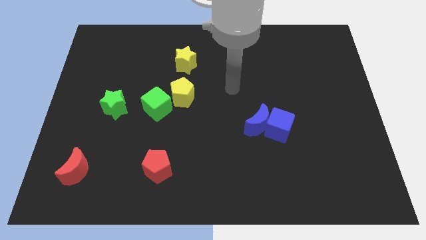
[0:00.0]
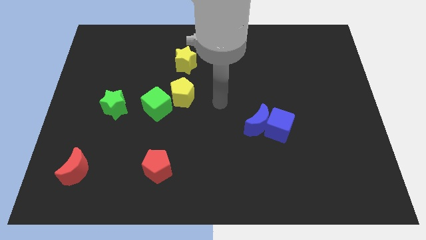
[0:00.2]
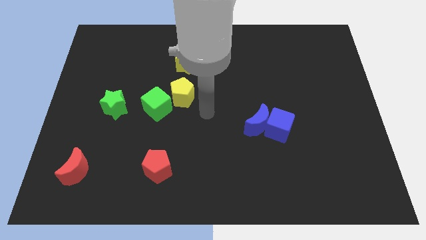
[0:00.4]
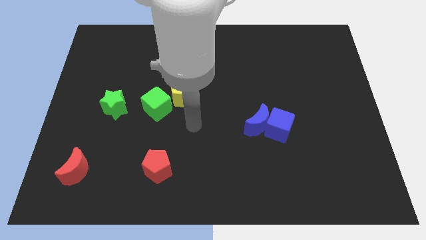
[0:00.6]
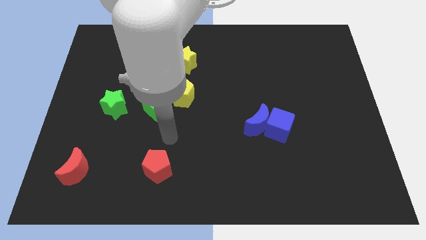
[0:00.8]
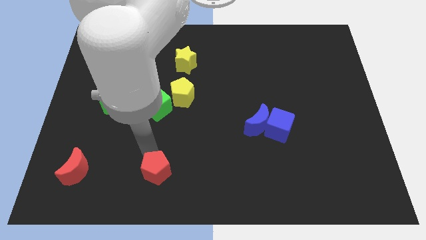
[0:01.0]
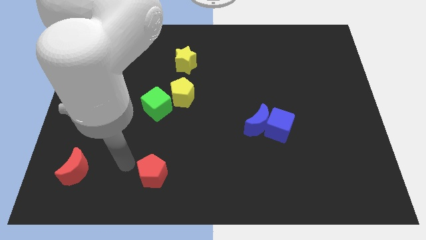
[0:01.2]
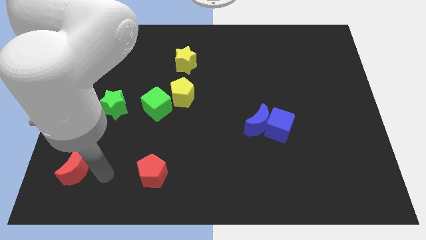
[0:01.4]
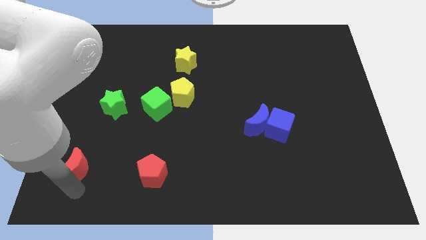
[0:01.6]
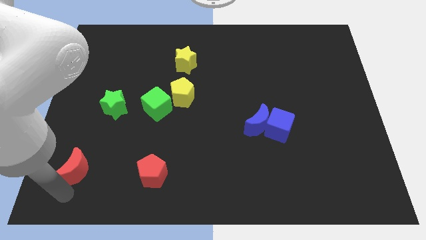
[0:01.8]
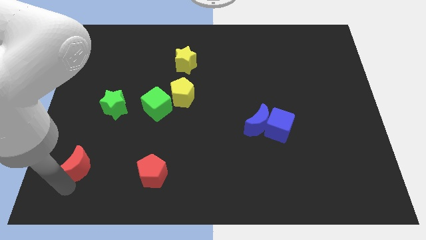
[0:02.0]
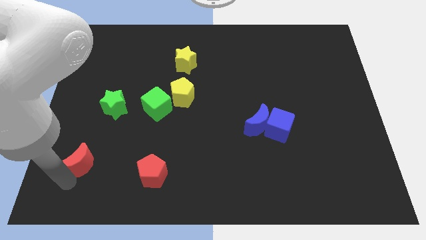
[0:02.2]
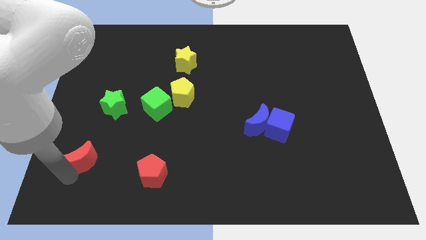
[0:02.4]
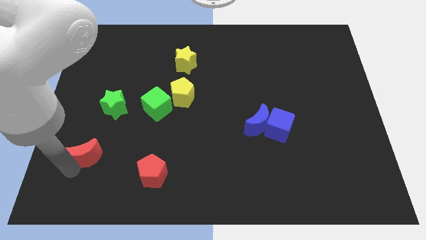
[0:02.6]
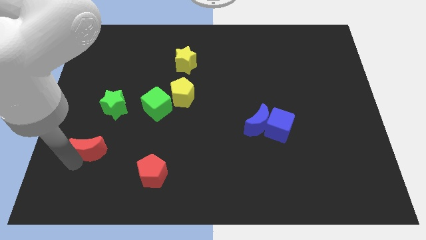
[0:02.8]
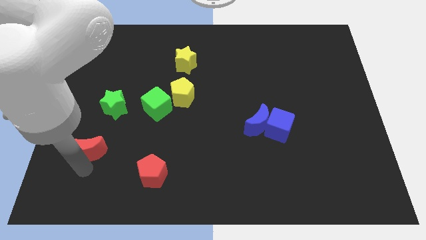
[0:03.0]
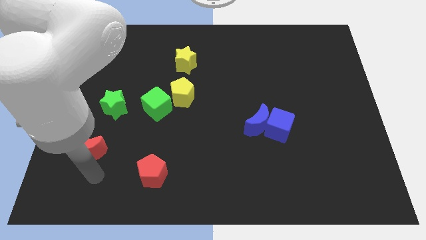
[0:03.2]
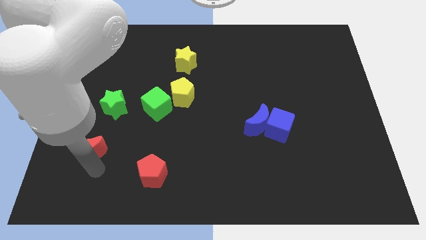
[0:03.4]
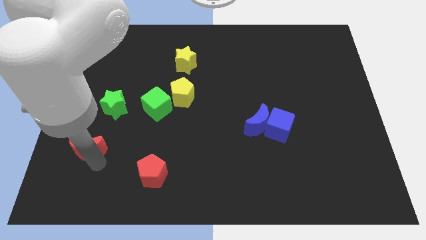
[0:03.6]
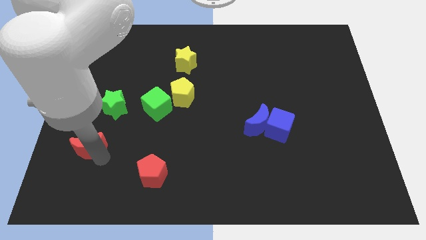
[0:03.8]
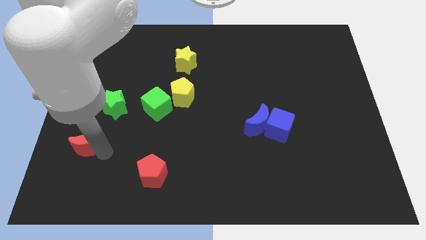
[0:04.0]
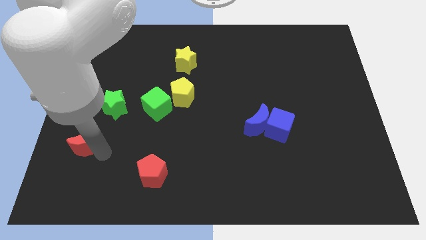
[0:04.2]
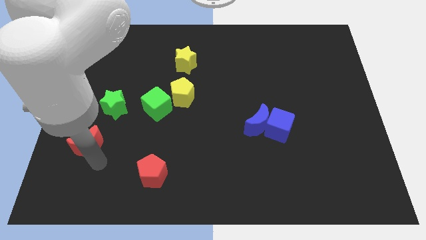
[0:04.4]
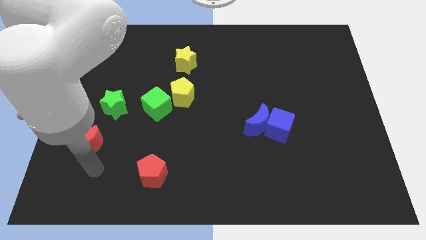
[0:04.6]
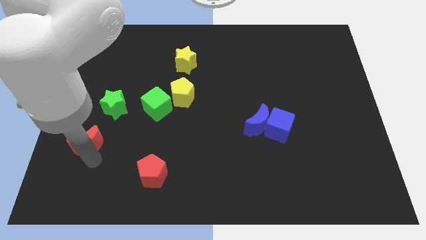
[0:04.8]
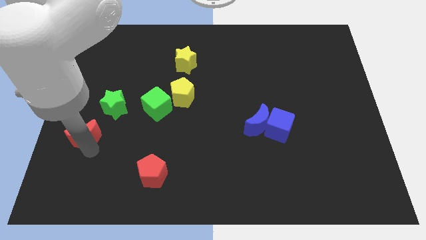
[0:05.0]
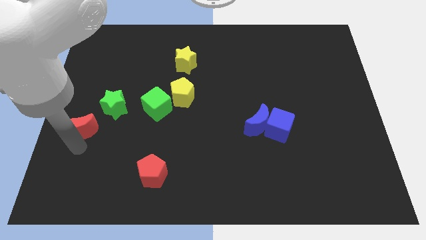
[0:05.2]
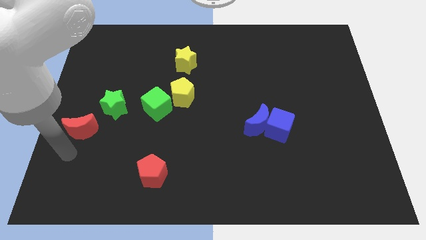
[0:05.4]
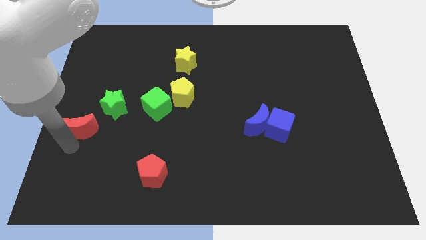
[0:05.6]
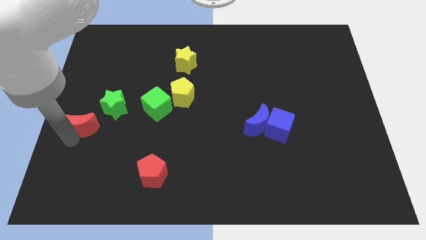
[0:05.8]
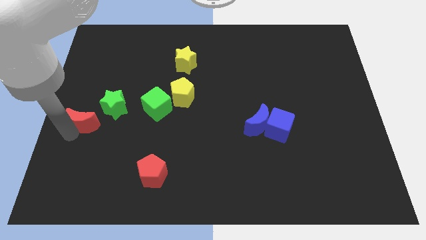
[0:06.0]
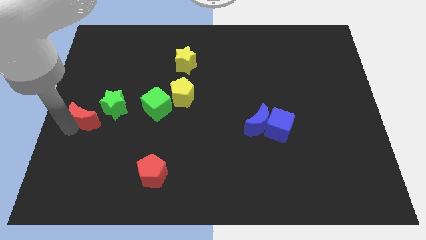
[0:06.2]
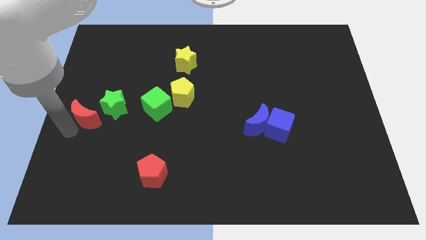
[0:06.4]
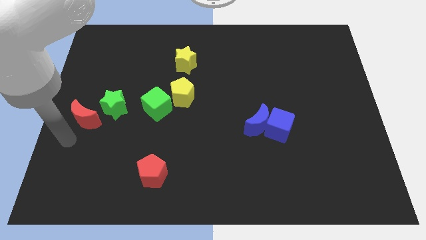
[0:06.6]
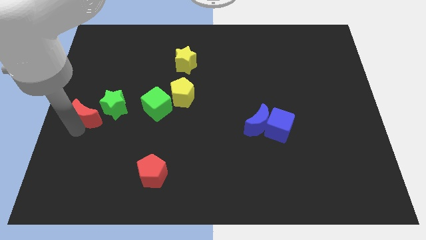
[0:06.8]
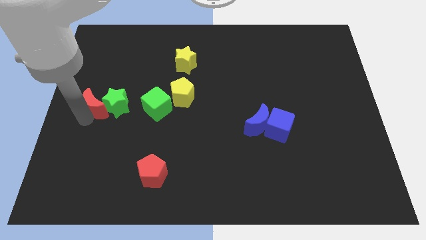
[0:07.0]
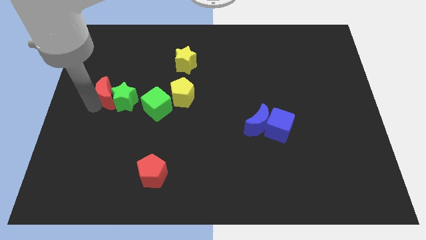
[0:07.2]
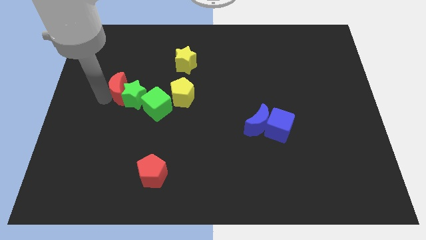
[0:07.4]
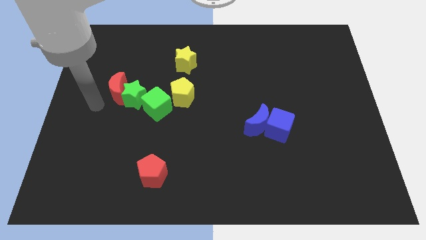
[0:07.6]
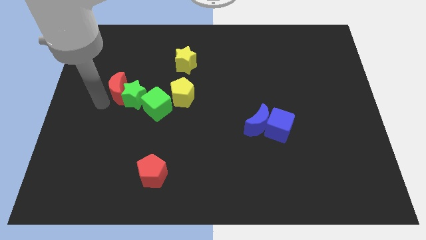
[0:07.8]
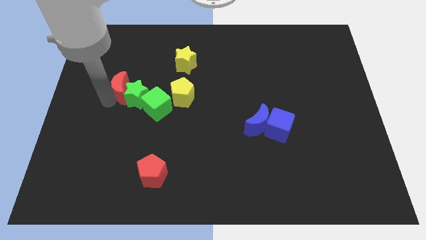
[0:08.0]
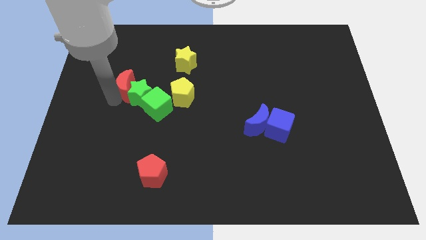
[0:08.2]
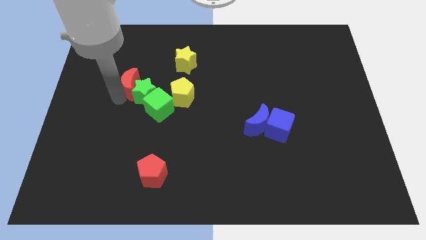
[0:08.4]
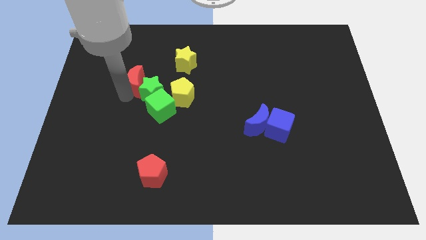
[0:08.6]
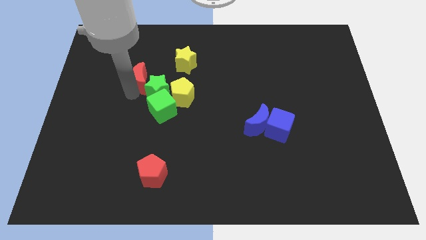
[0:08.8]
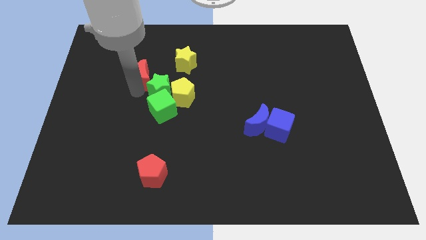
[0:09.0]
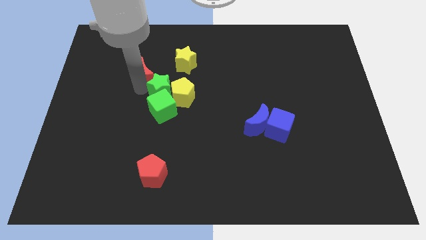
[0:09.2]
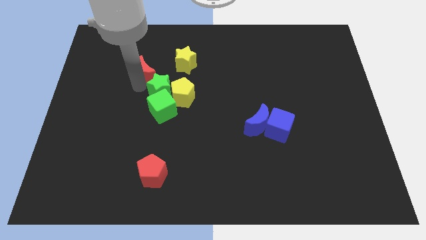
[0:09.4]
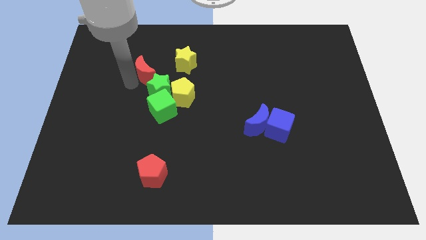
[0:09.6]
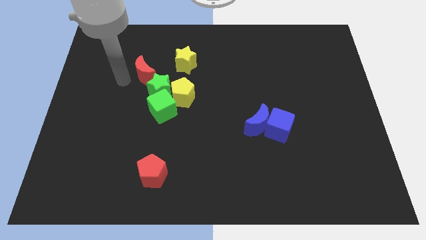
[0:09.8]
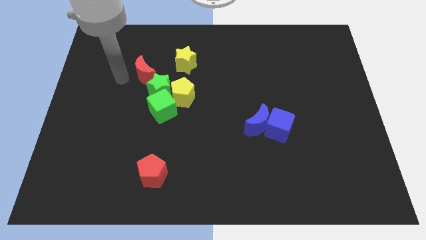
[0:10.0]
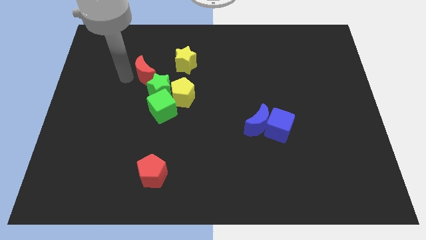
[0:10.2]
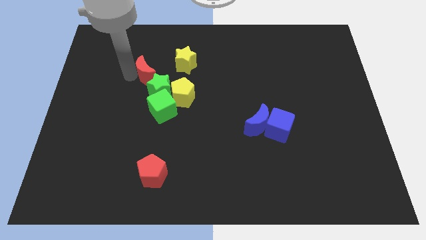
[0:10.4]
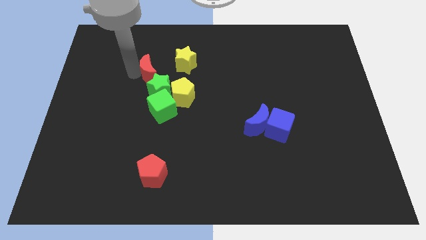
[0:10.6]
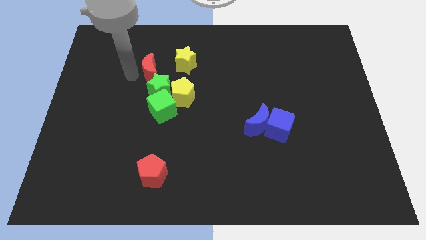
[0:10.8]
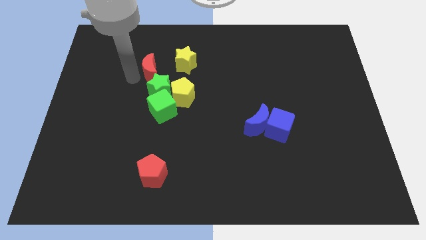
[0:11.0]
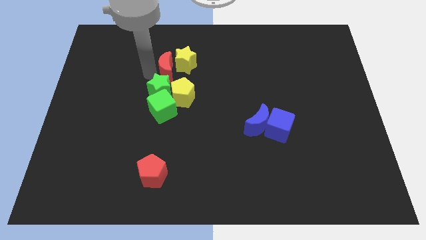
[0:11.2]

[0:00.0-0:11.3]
put the red moon to the yellow star

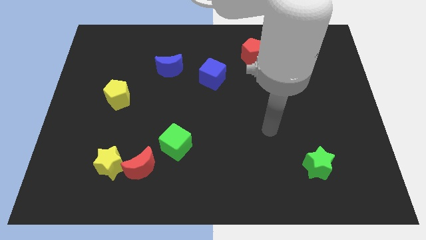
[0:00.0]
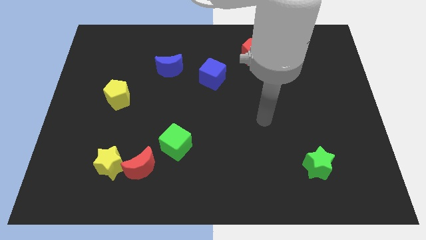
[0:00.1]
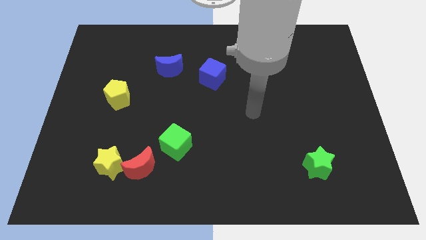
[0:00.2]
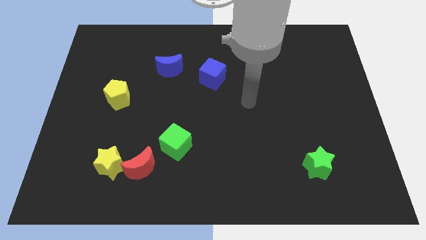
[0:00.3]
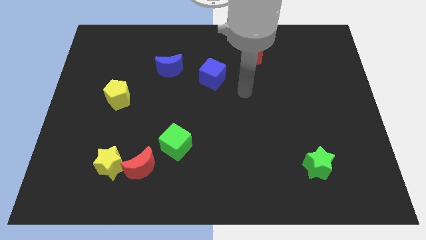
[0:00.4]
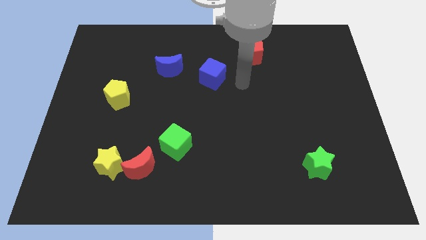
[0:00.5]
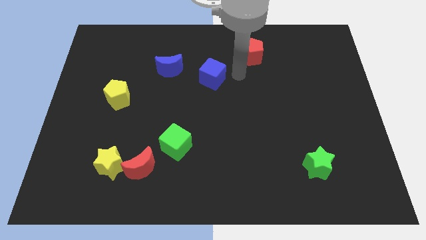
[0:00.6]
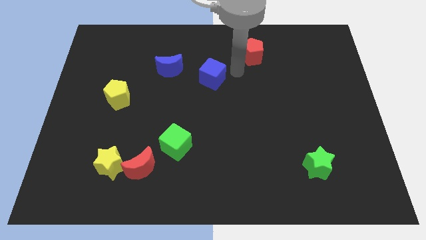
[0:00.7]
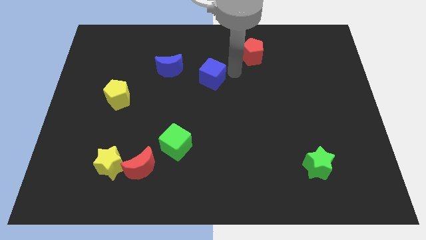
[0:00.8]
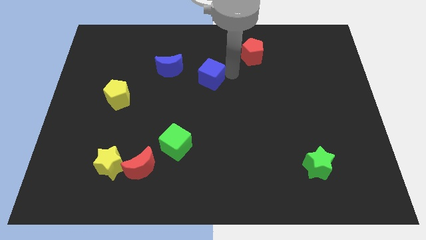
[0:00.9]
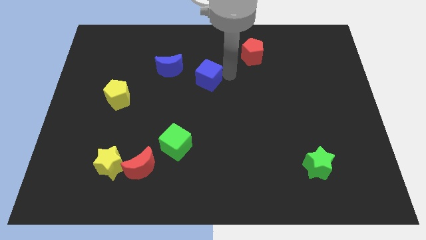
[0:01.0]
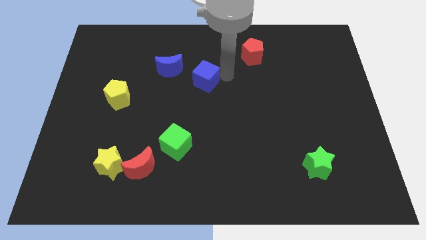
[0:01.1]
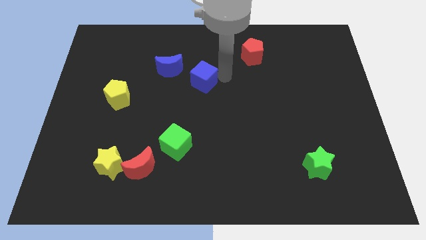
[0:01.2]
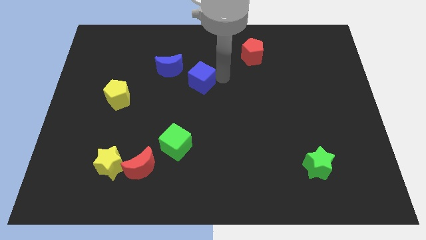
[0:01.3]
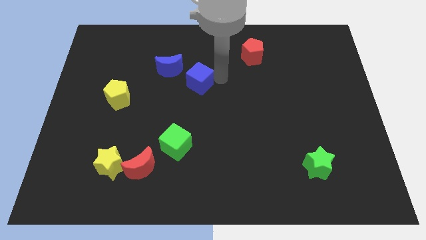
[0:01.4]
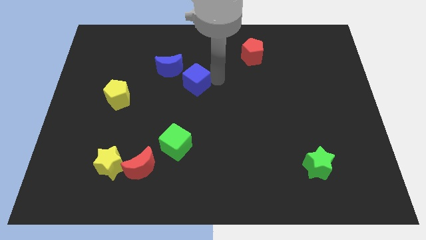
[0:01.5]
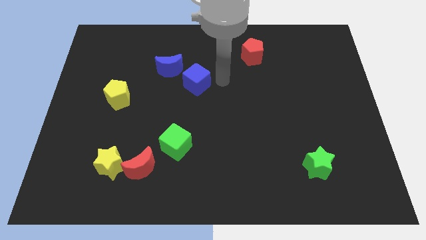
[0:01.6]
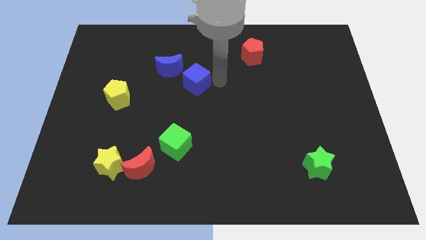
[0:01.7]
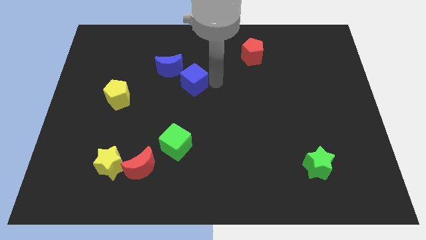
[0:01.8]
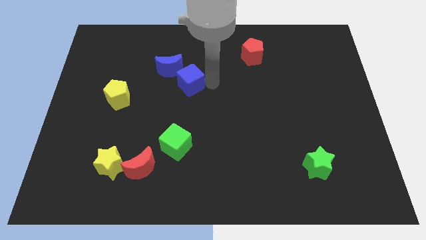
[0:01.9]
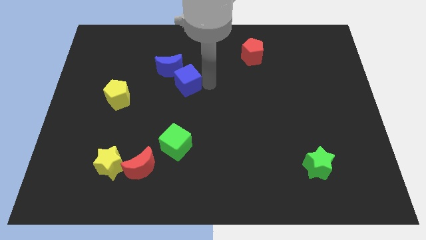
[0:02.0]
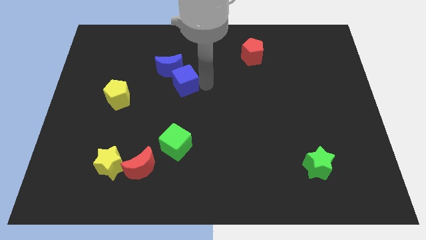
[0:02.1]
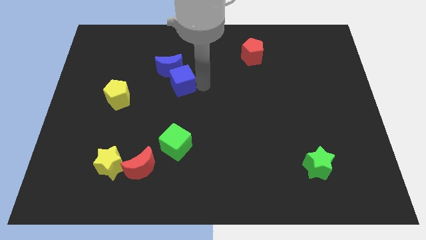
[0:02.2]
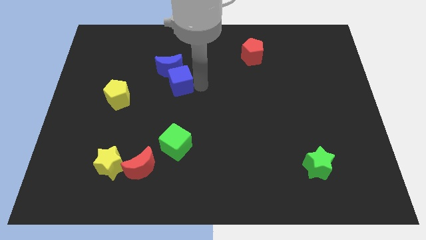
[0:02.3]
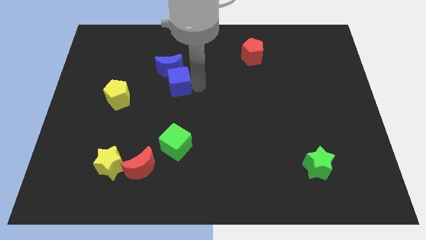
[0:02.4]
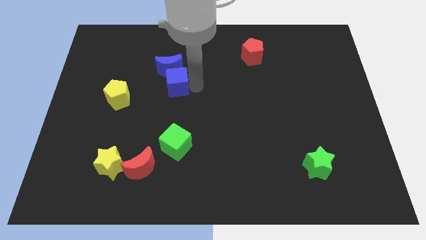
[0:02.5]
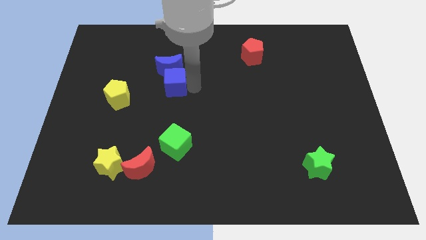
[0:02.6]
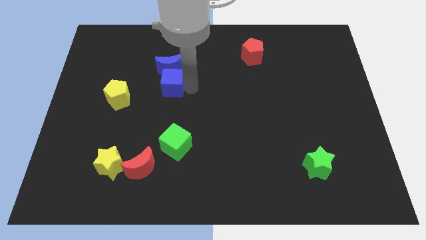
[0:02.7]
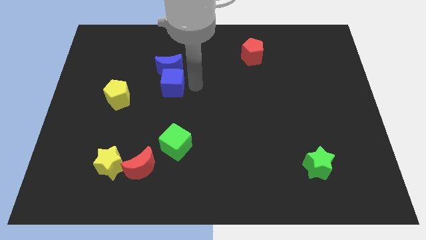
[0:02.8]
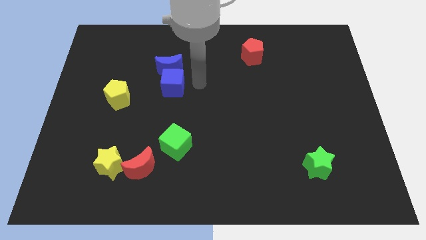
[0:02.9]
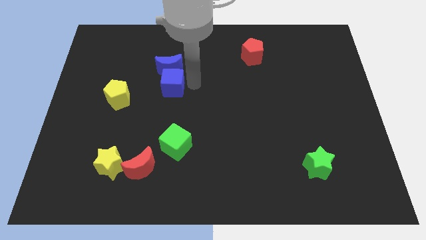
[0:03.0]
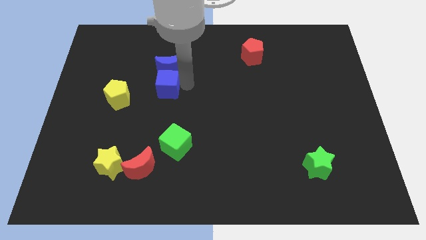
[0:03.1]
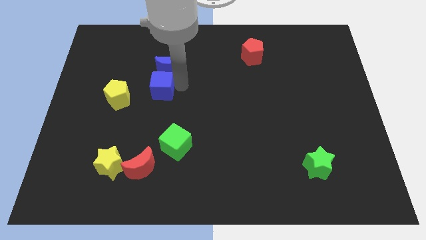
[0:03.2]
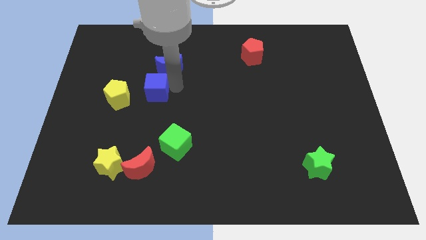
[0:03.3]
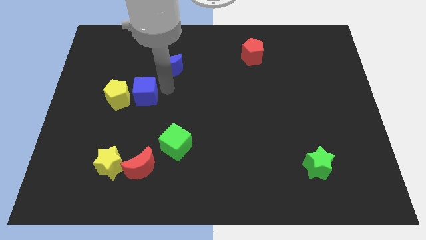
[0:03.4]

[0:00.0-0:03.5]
put the blue cube close to the yellow pentagon
